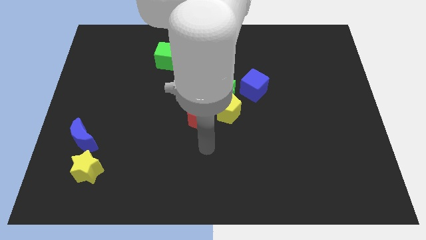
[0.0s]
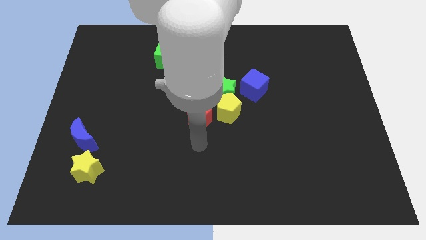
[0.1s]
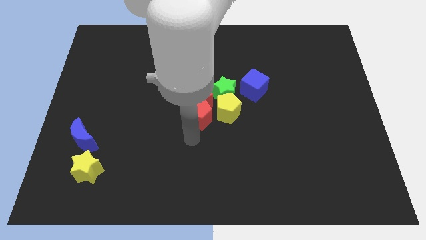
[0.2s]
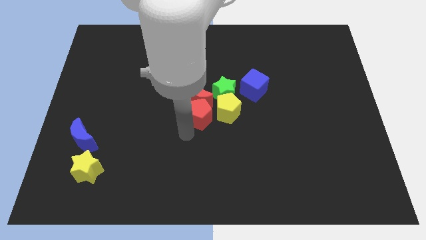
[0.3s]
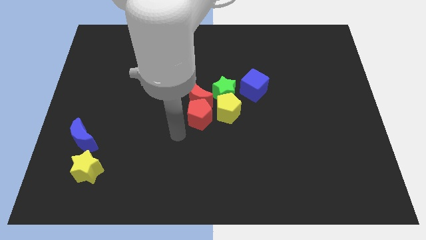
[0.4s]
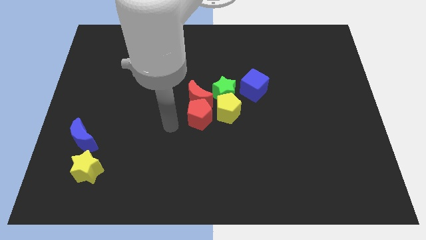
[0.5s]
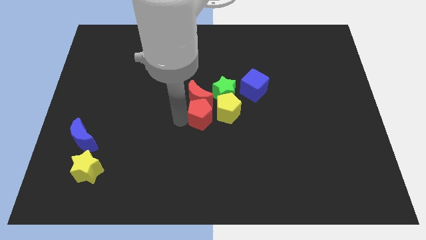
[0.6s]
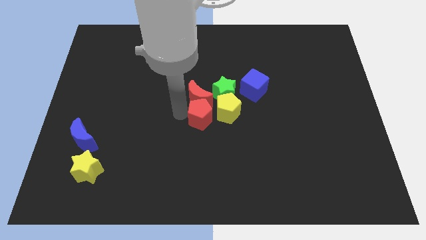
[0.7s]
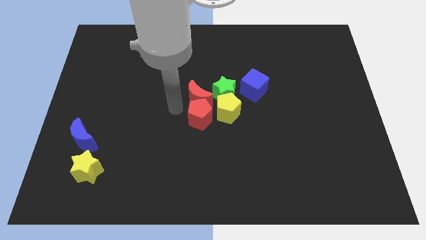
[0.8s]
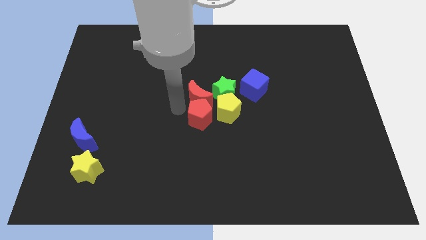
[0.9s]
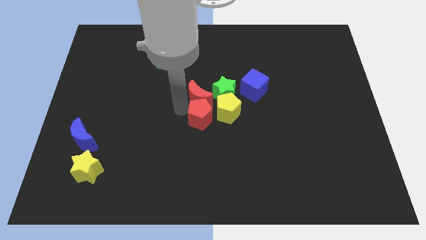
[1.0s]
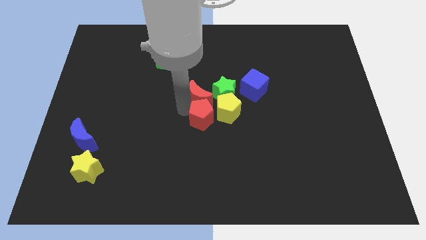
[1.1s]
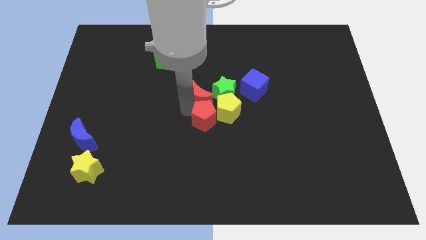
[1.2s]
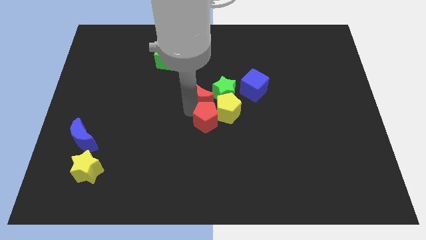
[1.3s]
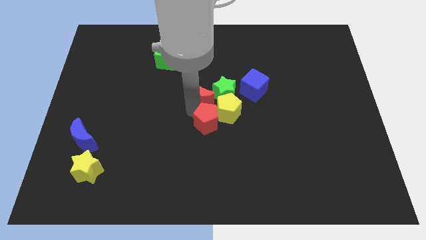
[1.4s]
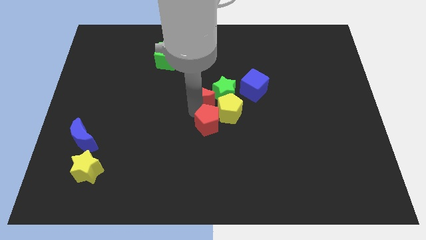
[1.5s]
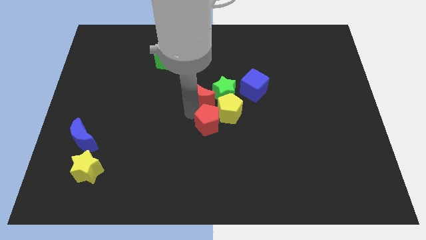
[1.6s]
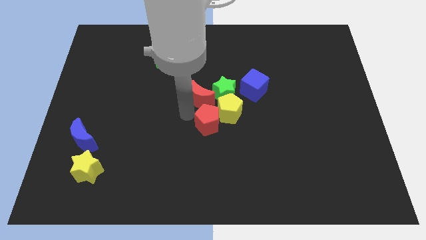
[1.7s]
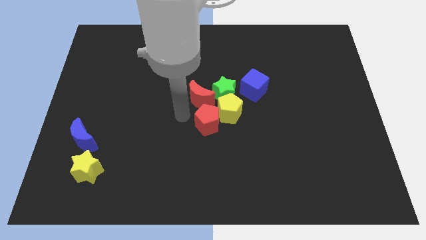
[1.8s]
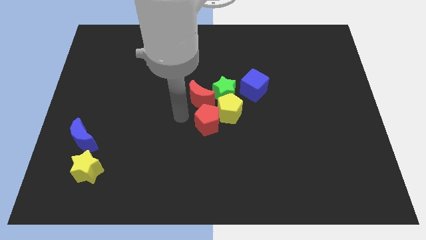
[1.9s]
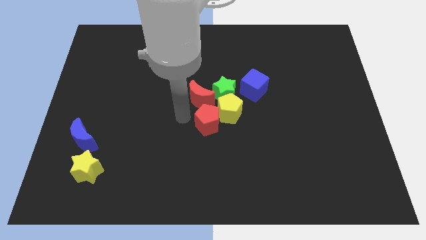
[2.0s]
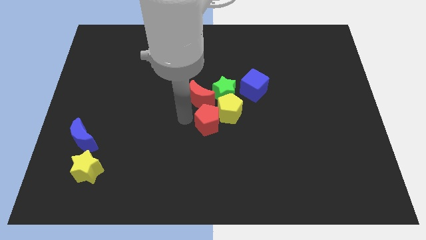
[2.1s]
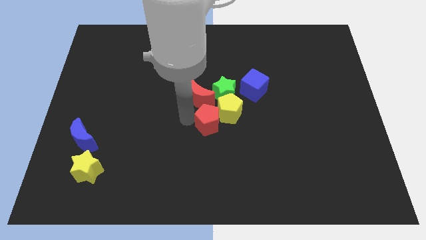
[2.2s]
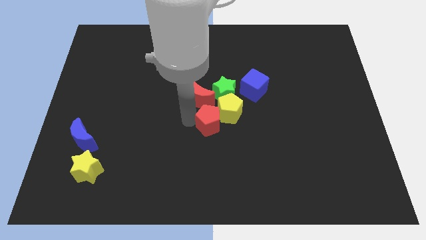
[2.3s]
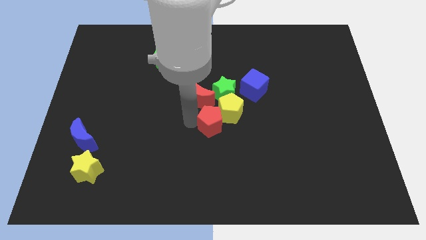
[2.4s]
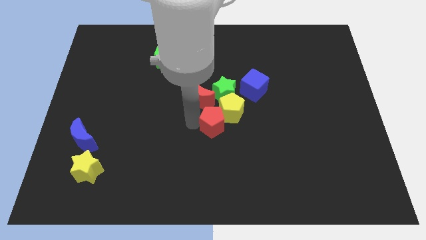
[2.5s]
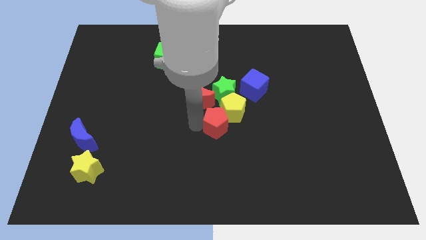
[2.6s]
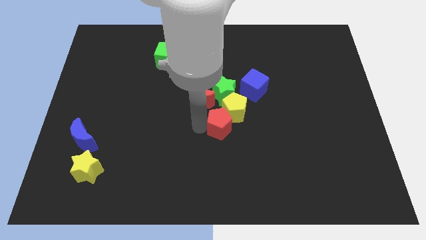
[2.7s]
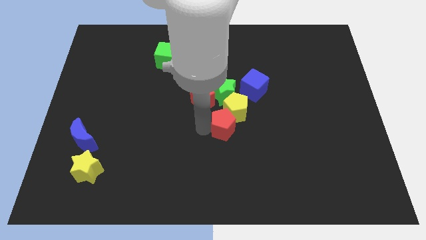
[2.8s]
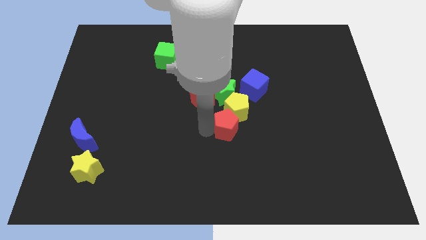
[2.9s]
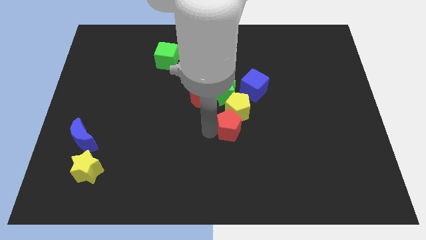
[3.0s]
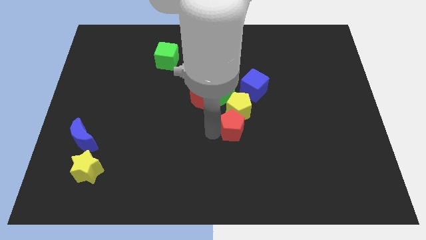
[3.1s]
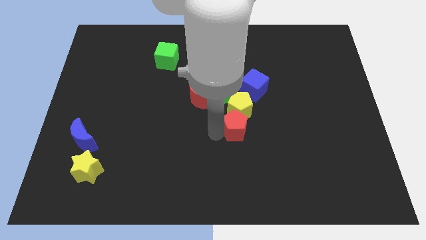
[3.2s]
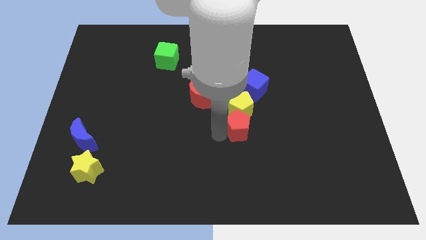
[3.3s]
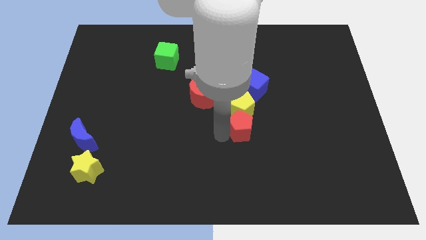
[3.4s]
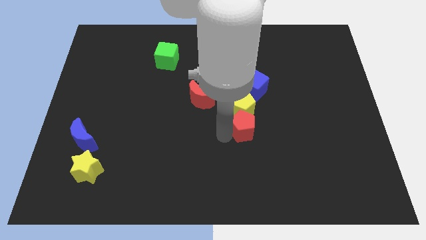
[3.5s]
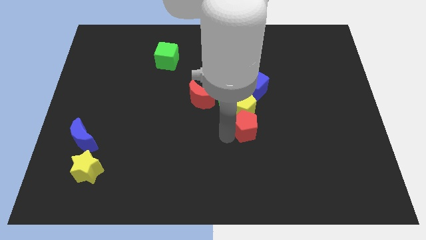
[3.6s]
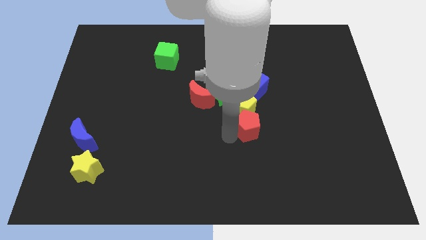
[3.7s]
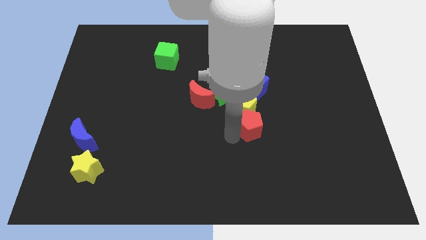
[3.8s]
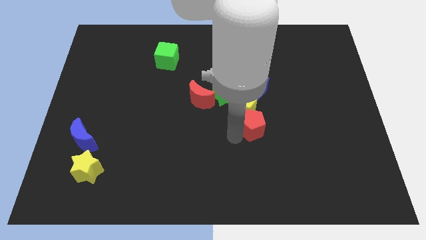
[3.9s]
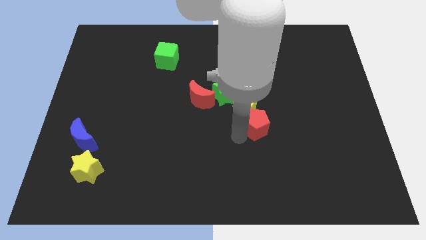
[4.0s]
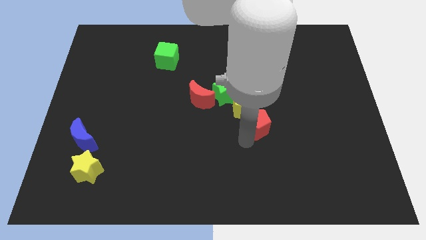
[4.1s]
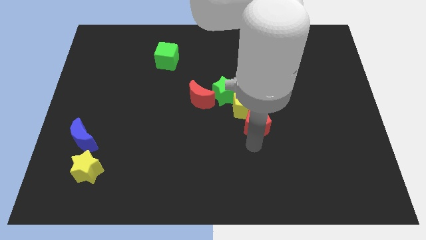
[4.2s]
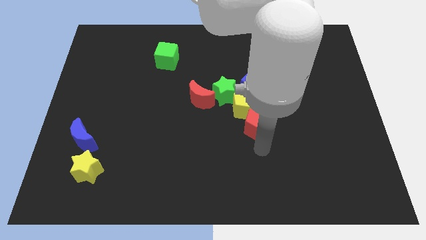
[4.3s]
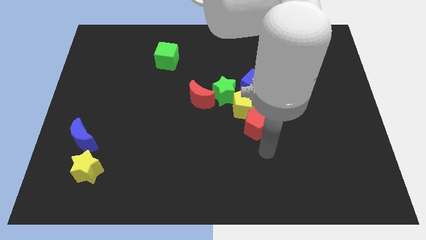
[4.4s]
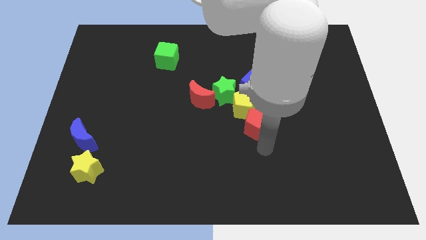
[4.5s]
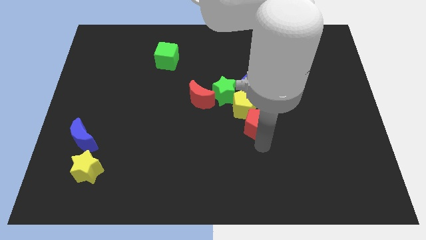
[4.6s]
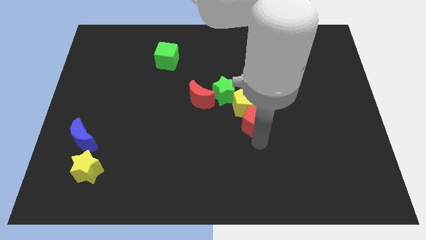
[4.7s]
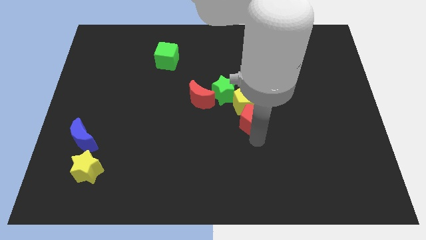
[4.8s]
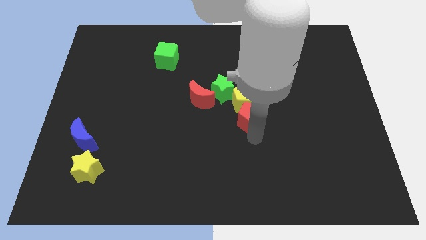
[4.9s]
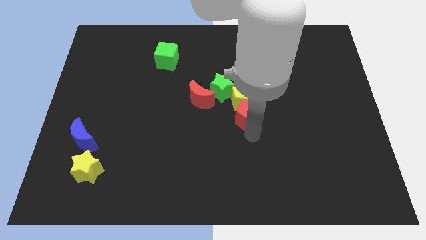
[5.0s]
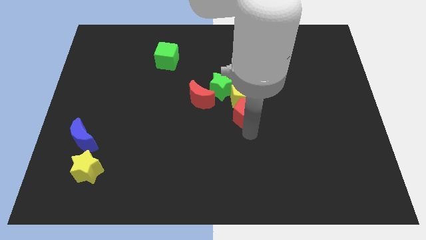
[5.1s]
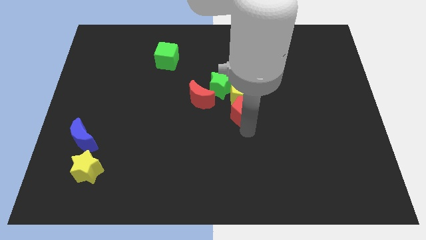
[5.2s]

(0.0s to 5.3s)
slide the red pentagon to the right side of the red moon

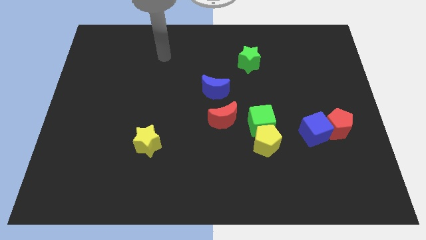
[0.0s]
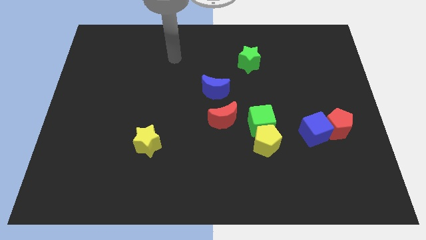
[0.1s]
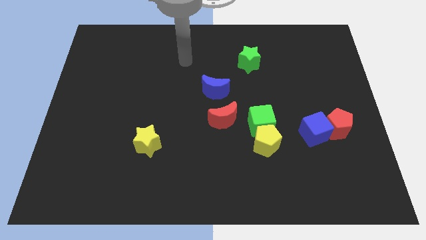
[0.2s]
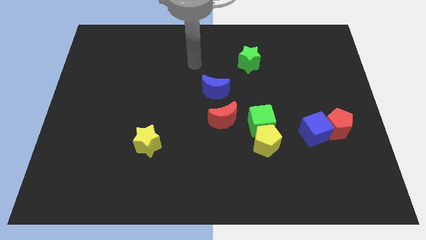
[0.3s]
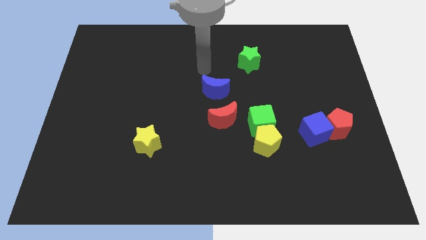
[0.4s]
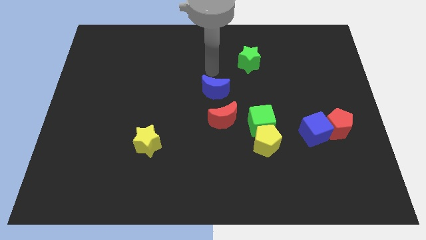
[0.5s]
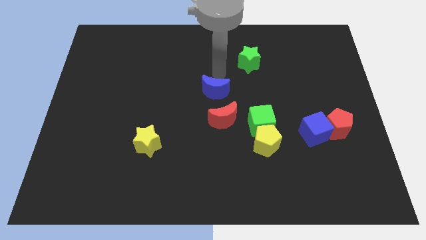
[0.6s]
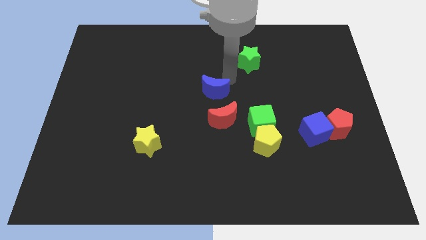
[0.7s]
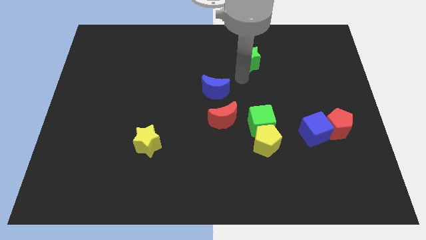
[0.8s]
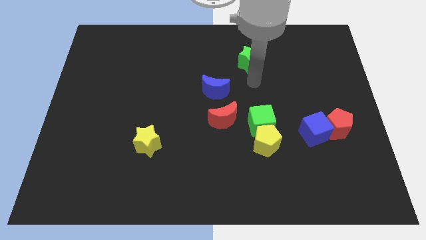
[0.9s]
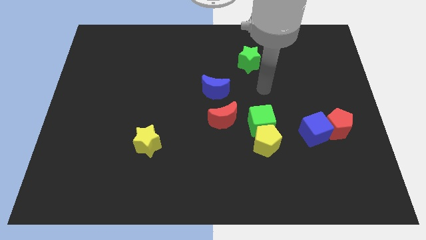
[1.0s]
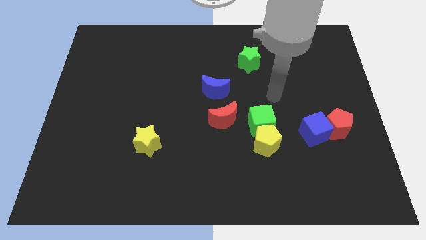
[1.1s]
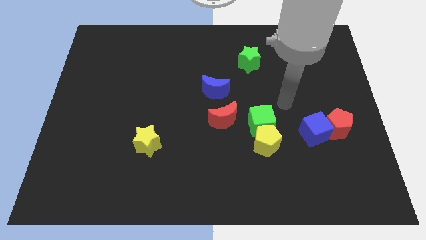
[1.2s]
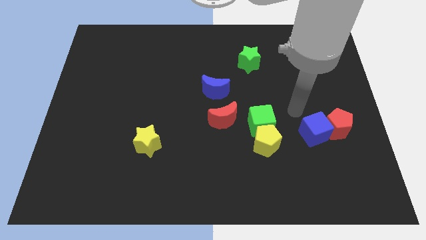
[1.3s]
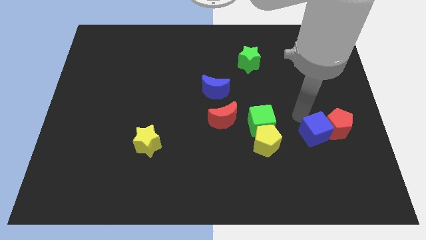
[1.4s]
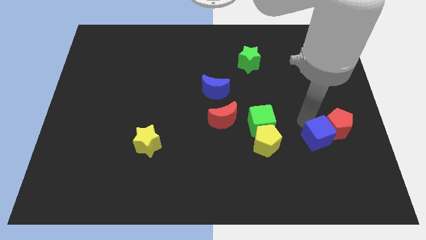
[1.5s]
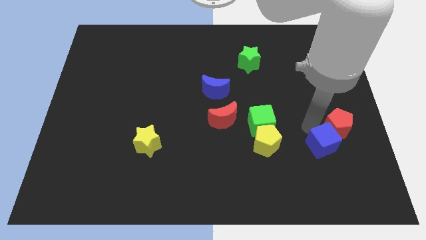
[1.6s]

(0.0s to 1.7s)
push the blue cube to the bottom of the red pentagon
